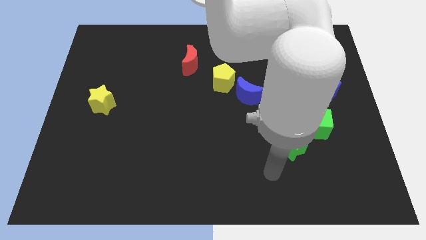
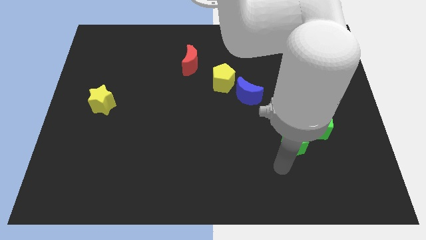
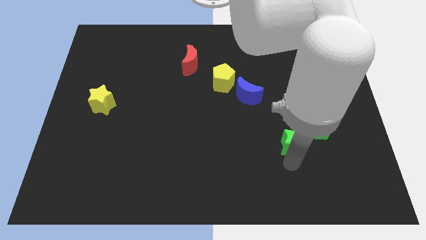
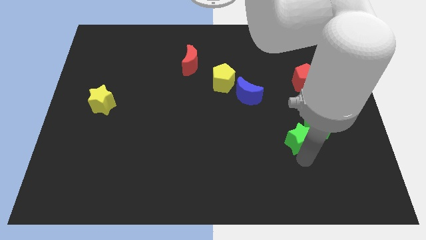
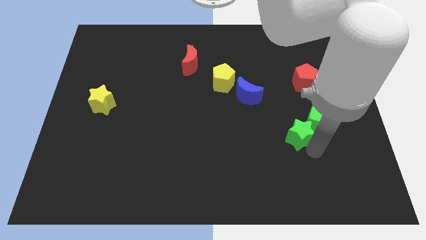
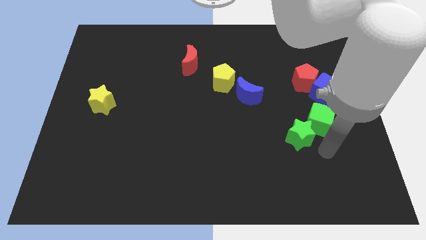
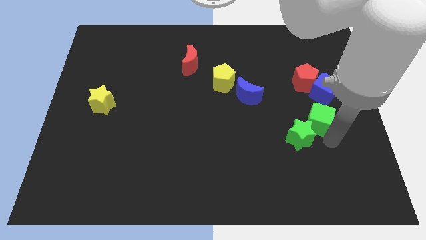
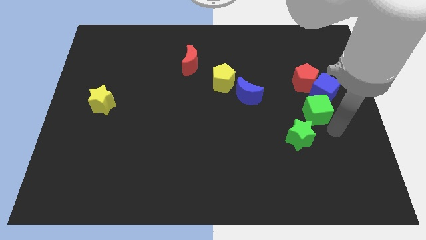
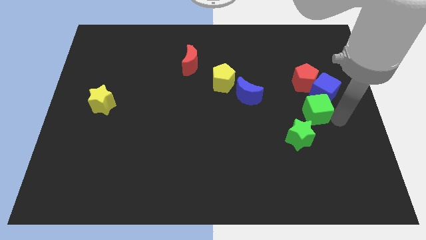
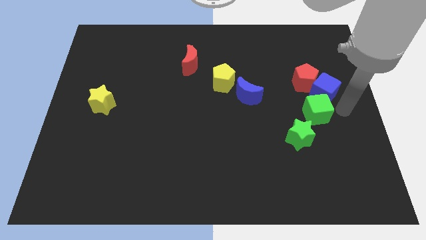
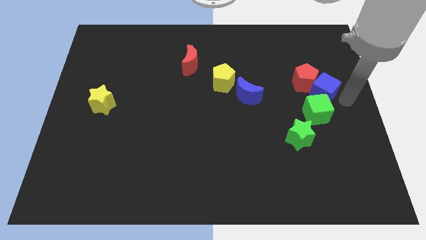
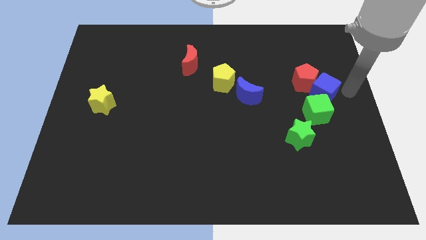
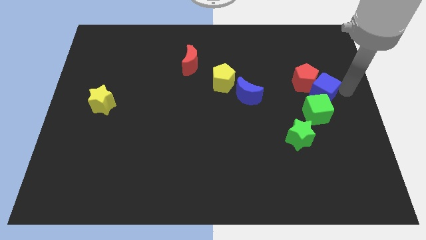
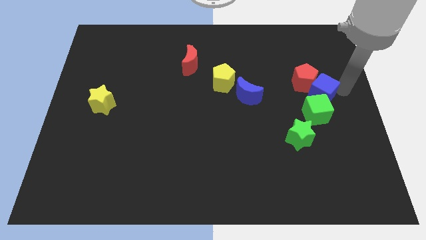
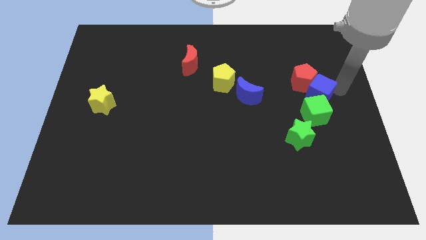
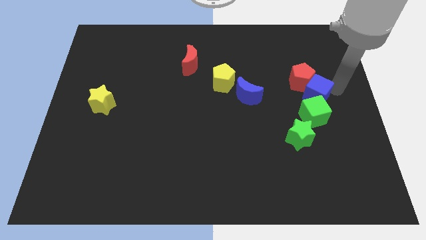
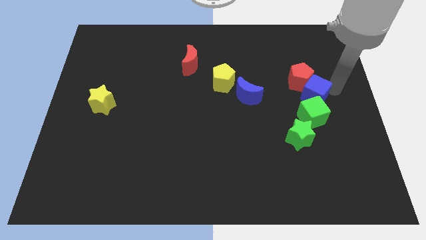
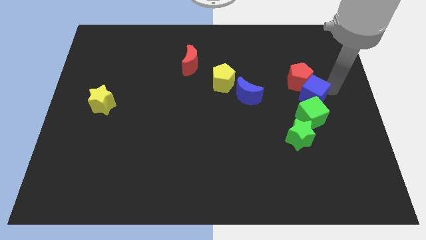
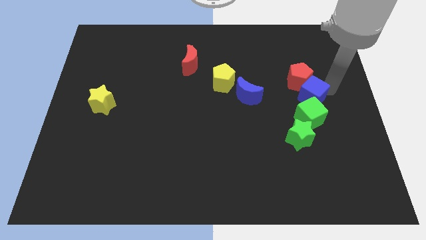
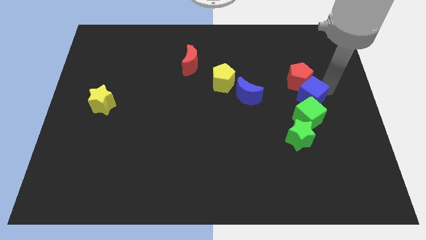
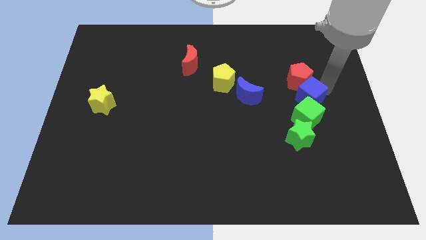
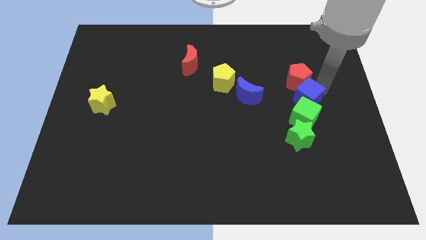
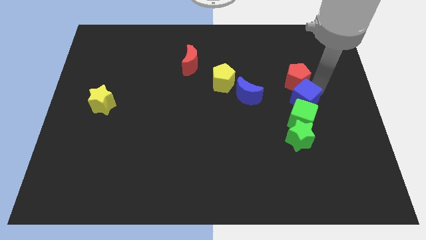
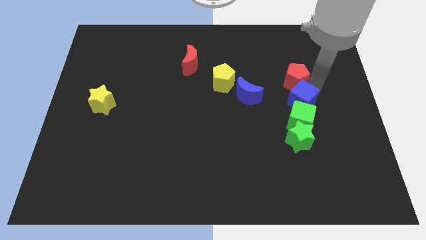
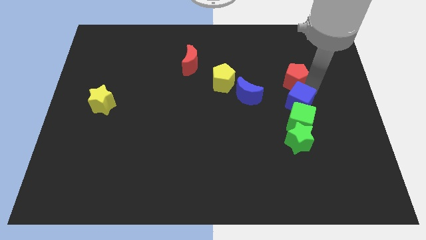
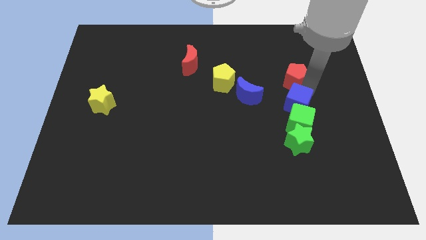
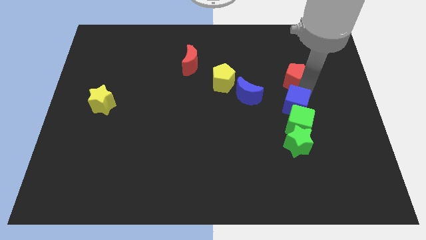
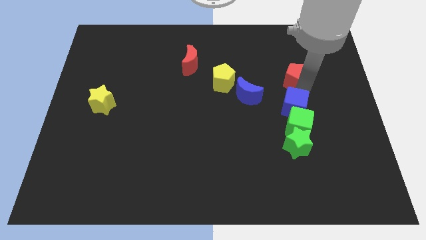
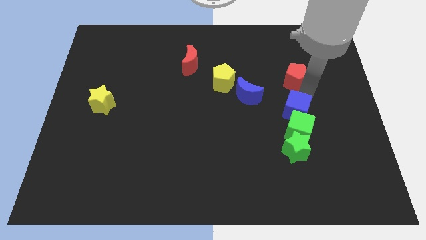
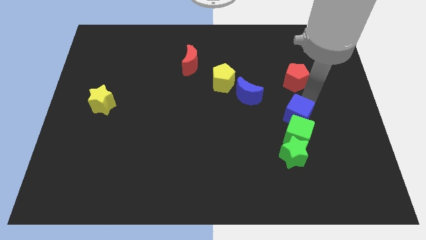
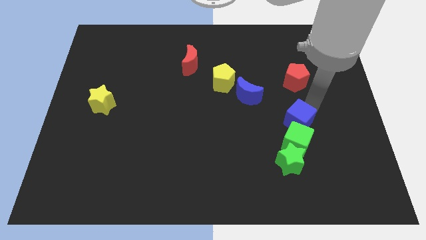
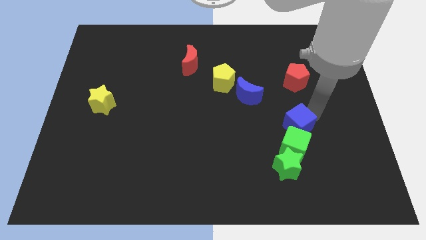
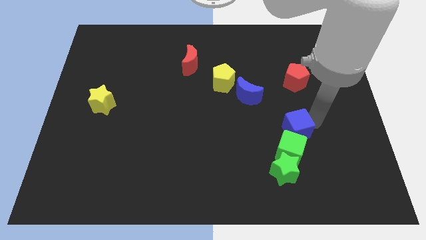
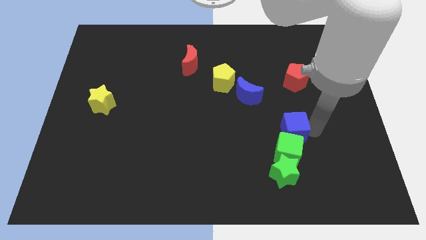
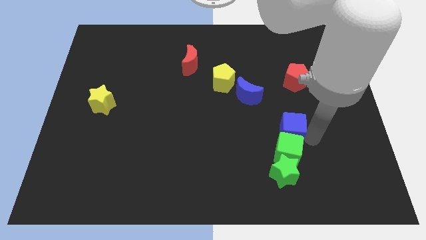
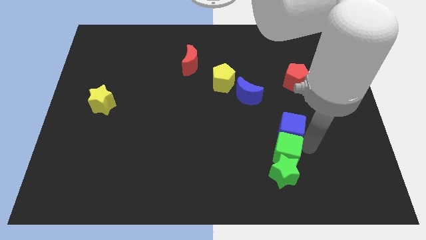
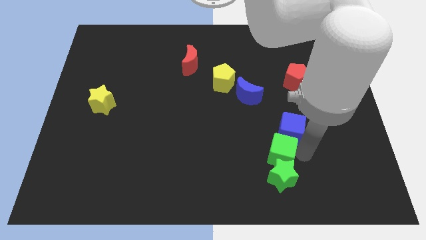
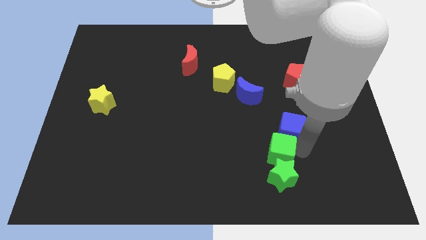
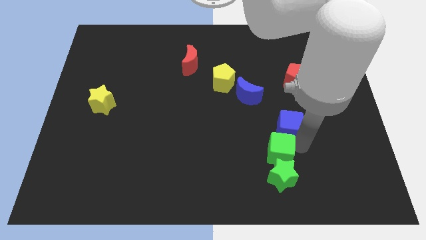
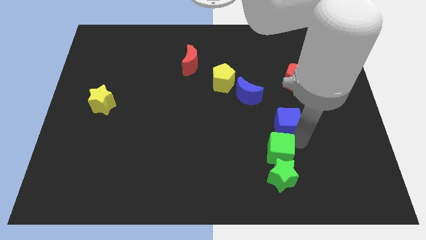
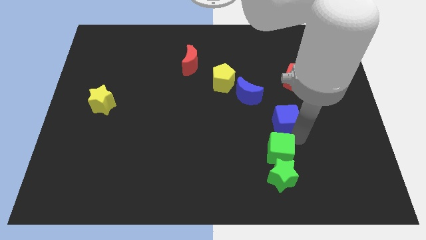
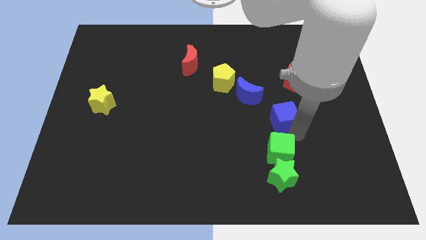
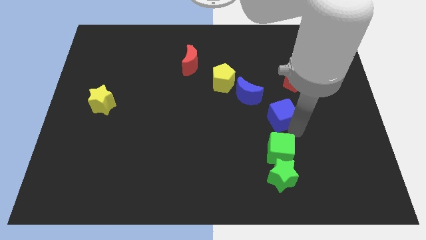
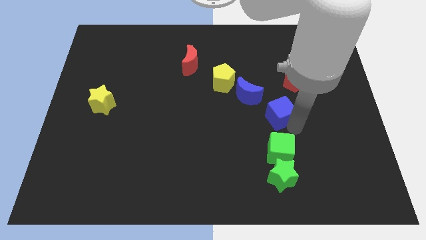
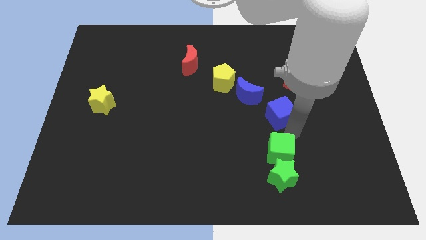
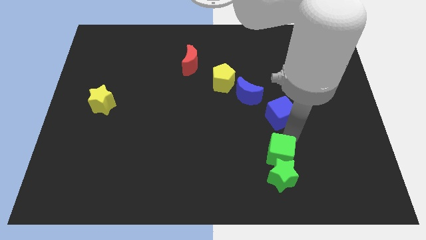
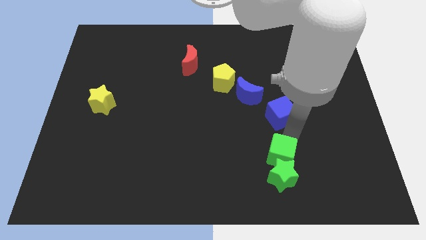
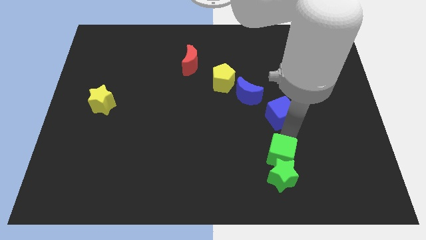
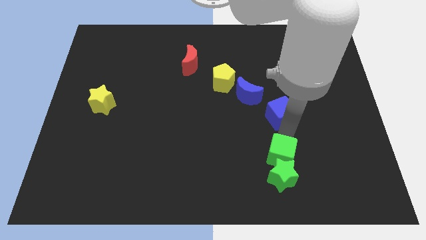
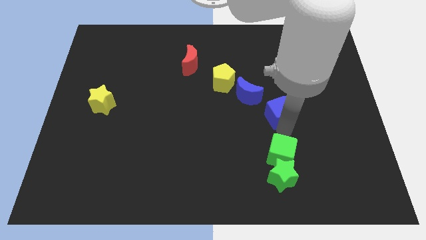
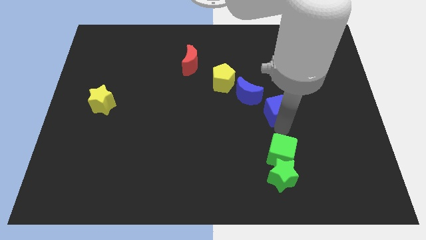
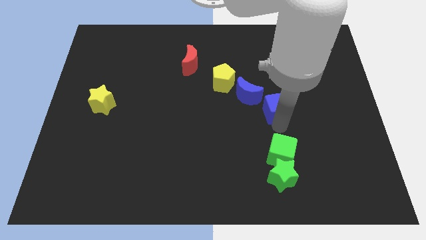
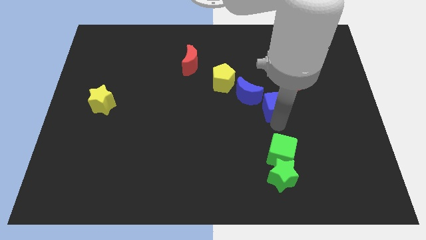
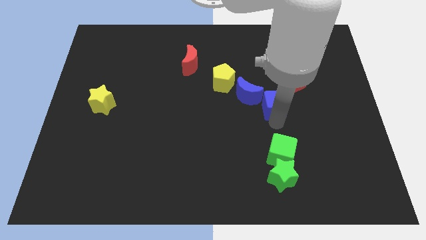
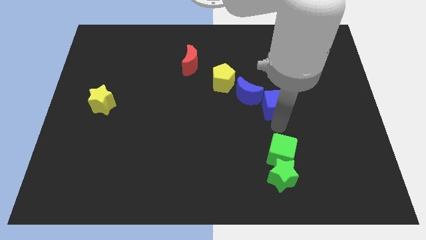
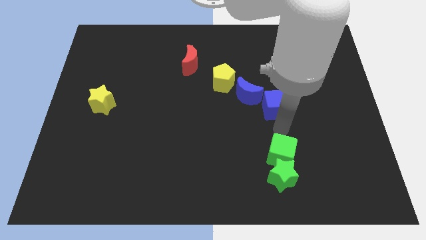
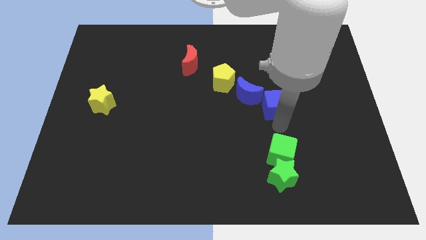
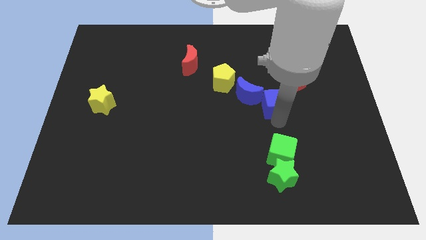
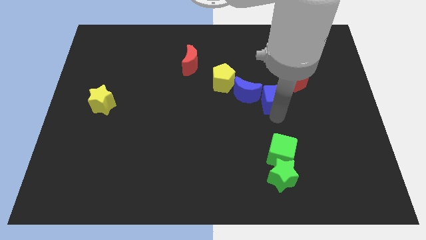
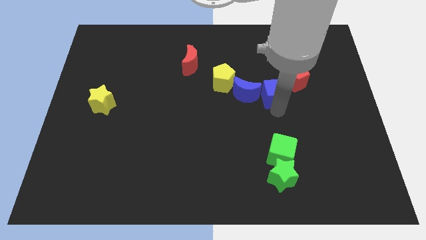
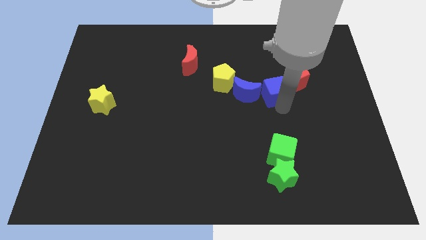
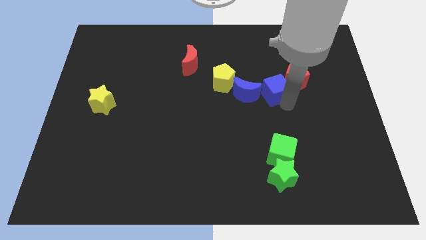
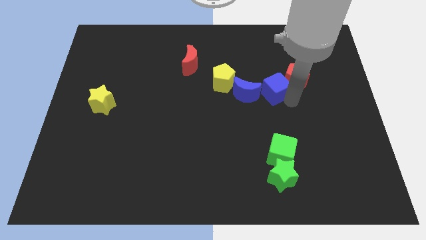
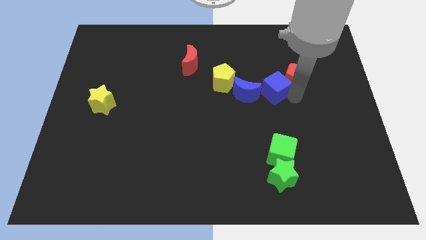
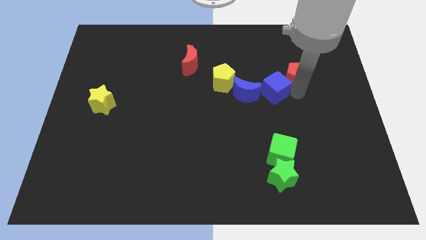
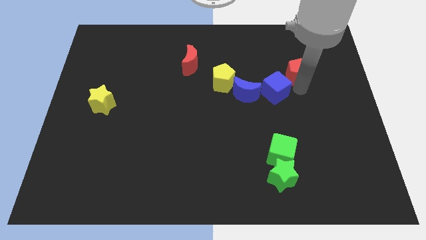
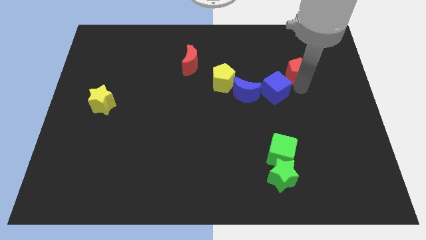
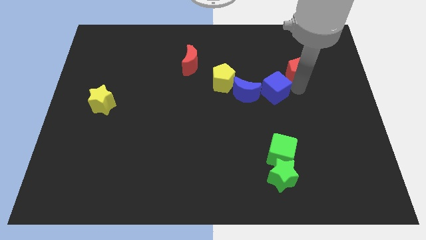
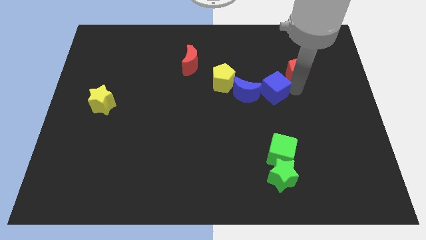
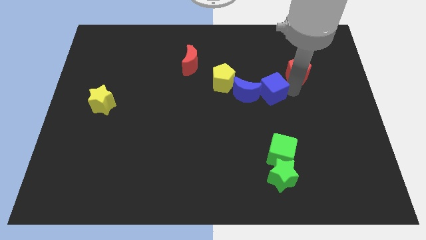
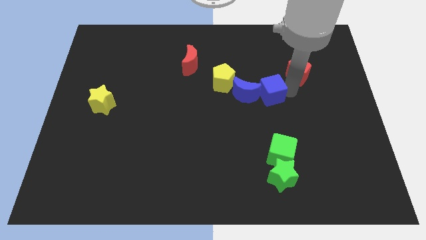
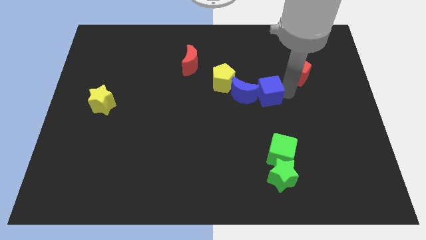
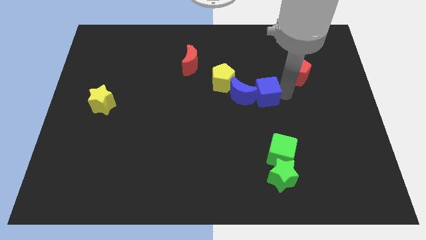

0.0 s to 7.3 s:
move the blue cube next to the blue moon

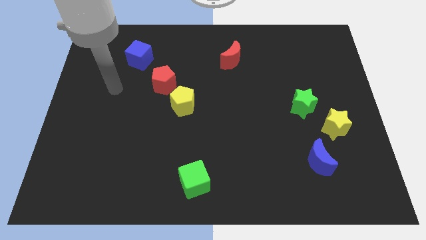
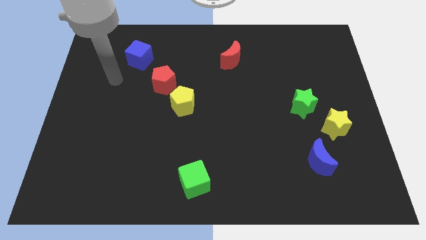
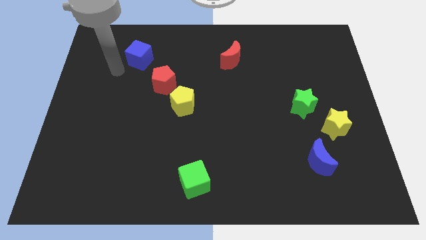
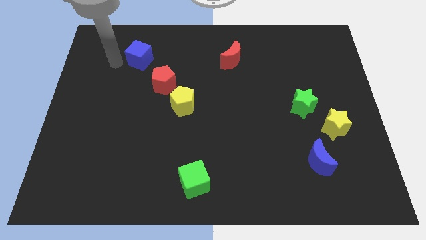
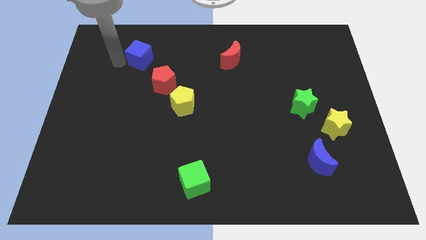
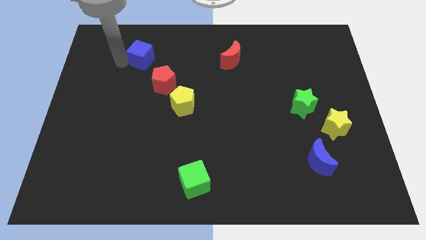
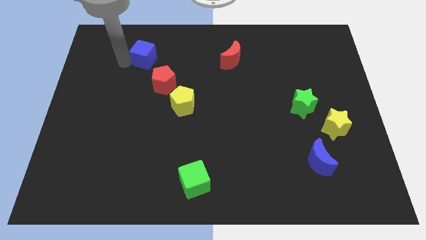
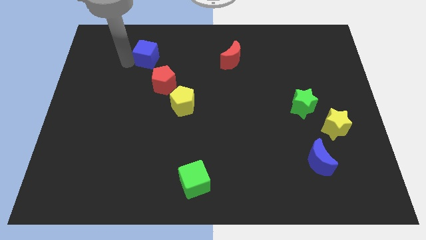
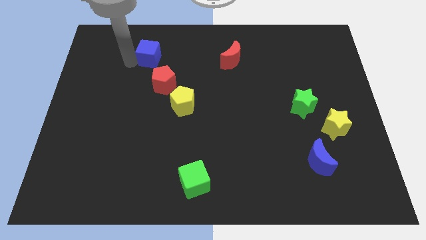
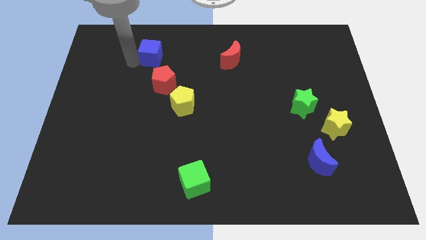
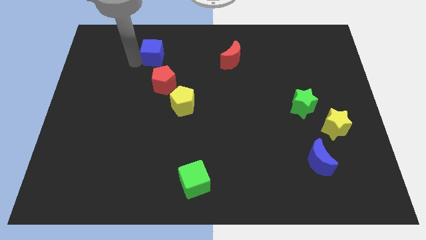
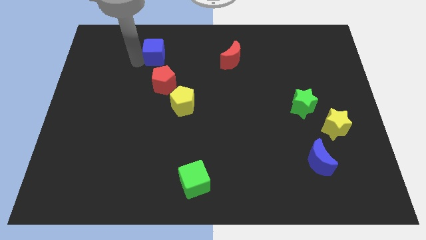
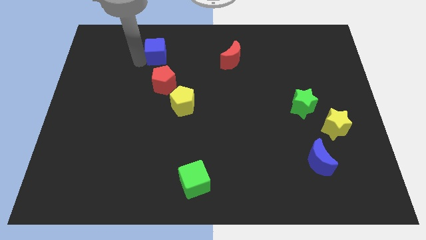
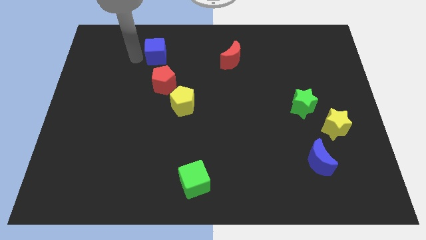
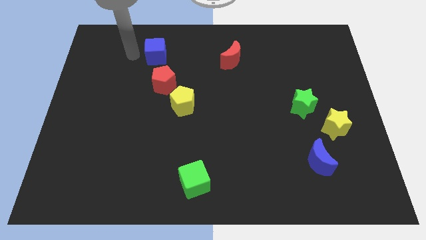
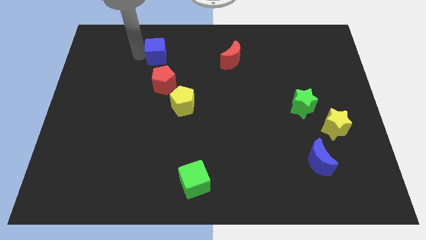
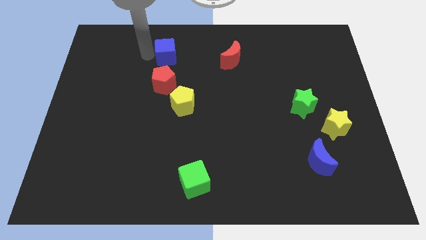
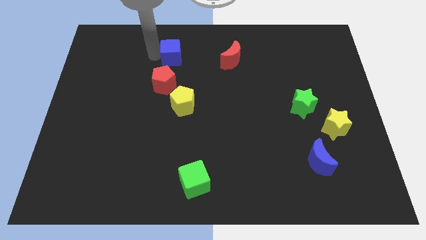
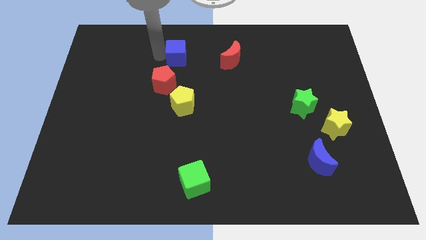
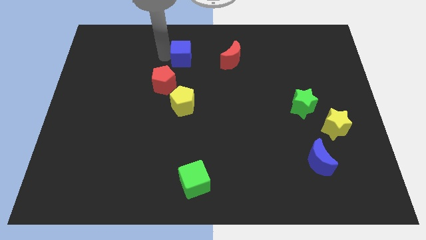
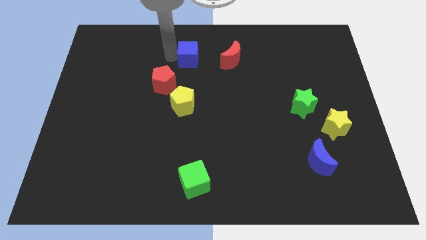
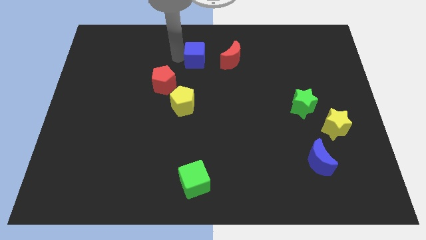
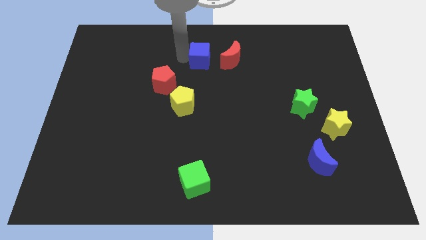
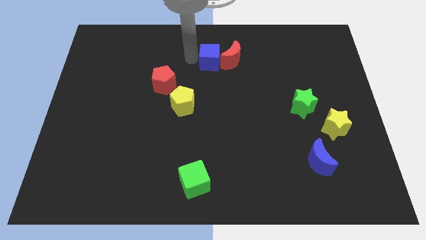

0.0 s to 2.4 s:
put the blue cube next to the red moon
